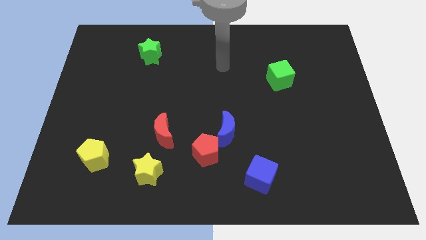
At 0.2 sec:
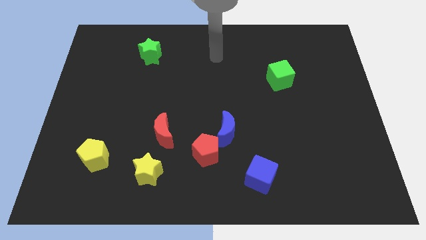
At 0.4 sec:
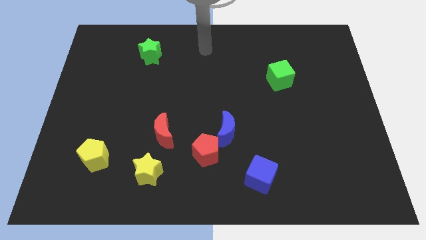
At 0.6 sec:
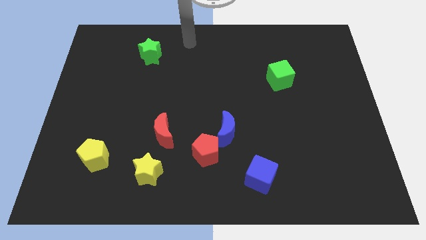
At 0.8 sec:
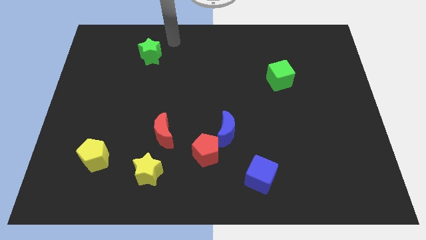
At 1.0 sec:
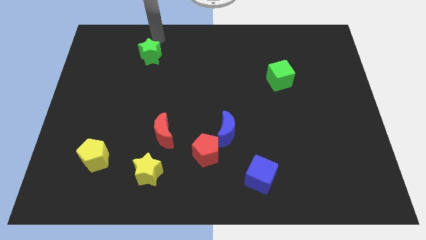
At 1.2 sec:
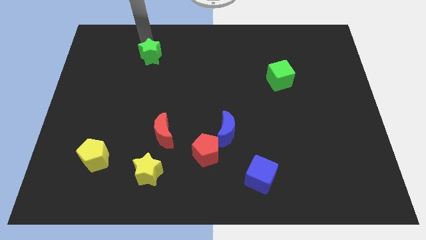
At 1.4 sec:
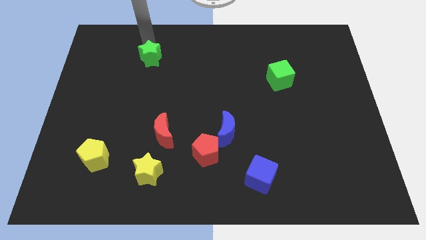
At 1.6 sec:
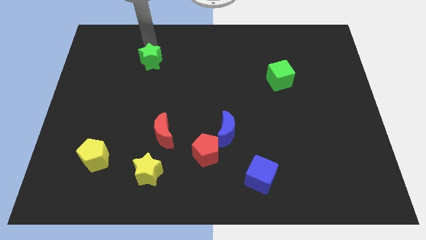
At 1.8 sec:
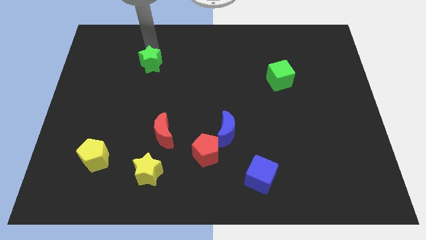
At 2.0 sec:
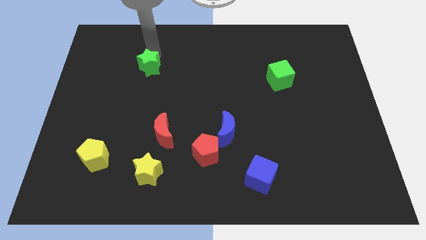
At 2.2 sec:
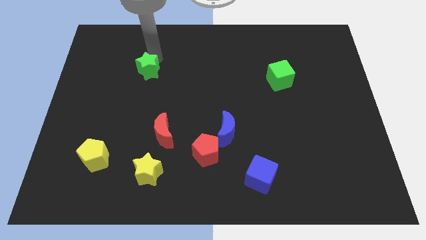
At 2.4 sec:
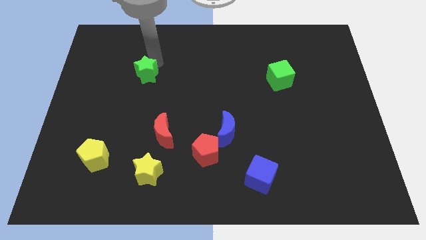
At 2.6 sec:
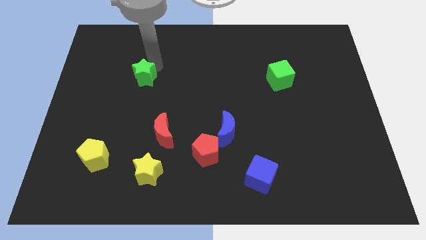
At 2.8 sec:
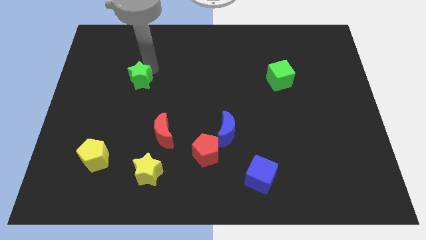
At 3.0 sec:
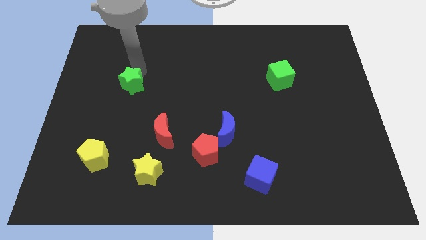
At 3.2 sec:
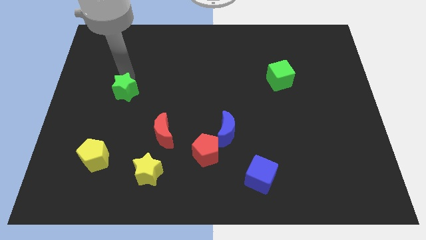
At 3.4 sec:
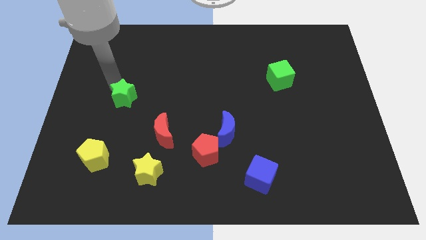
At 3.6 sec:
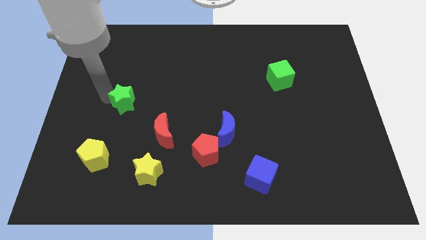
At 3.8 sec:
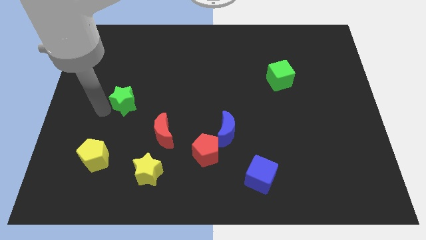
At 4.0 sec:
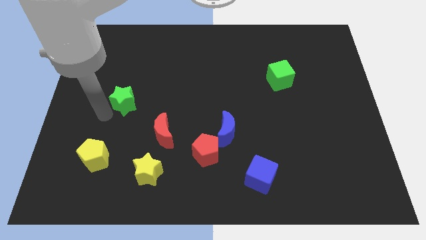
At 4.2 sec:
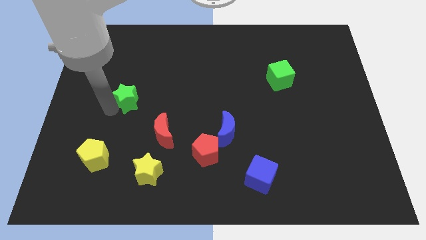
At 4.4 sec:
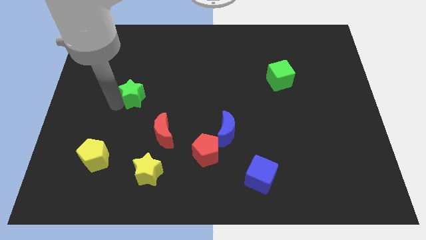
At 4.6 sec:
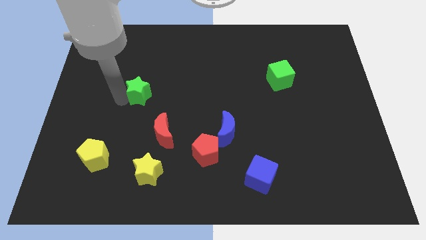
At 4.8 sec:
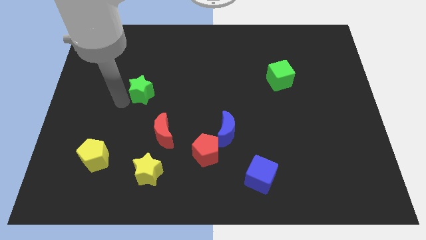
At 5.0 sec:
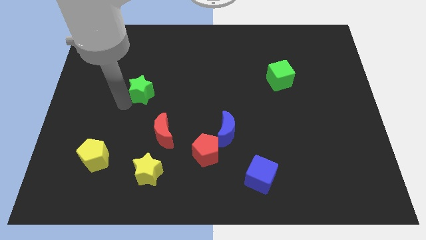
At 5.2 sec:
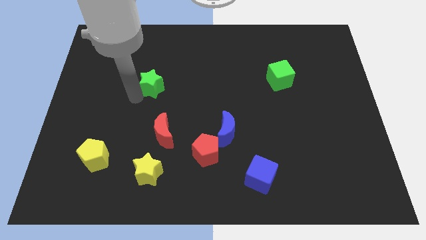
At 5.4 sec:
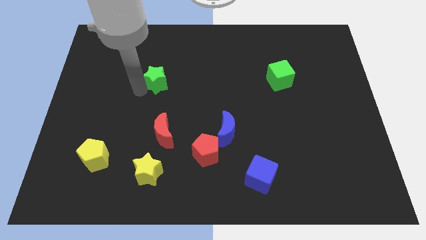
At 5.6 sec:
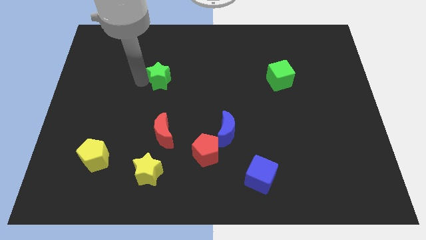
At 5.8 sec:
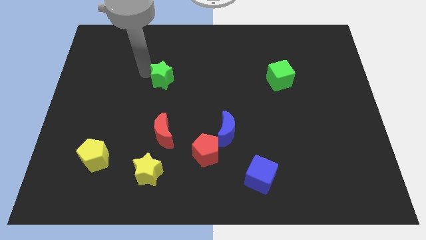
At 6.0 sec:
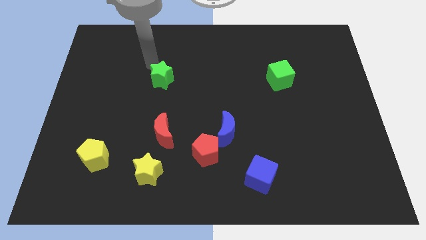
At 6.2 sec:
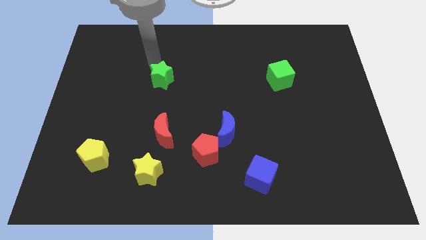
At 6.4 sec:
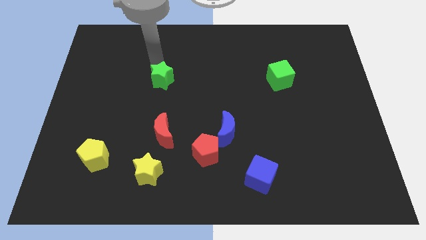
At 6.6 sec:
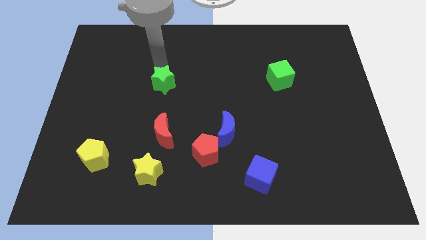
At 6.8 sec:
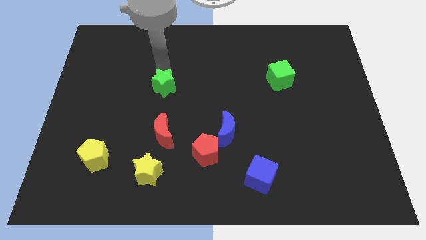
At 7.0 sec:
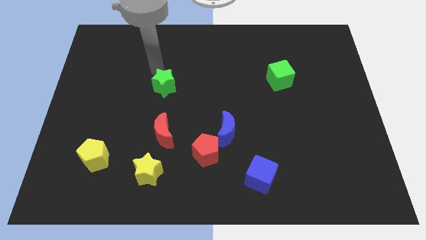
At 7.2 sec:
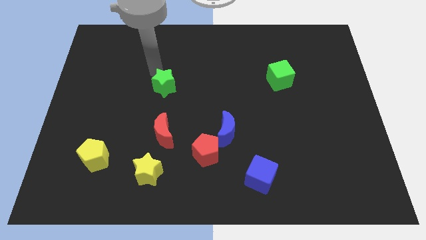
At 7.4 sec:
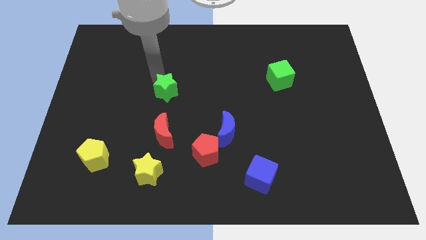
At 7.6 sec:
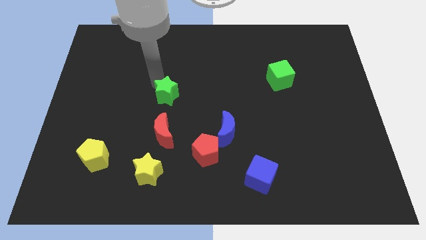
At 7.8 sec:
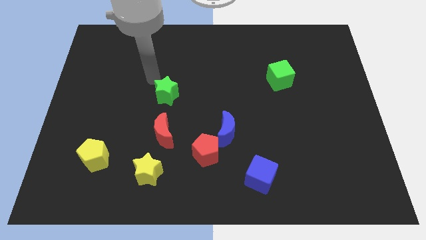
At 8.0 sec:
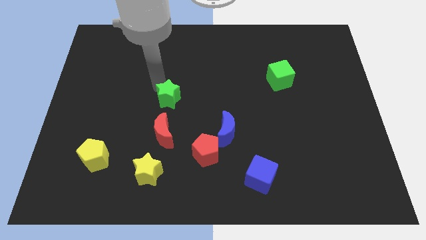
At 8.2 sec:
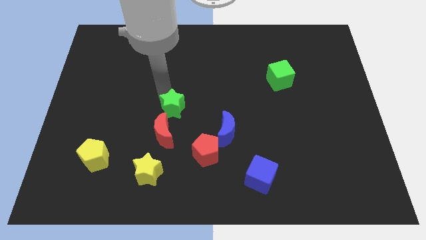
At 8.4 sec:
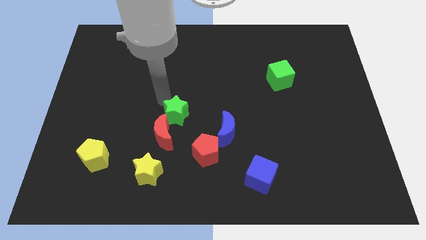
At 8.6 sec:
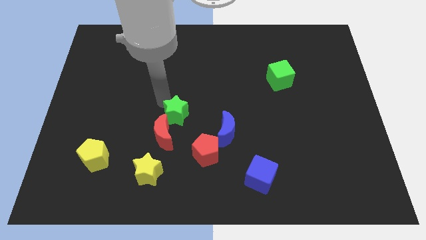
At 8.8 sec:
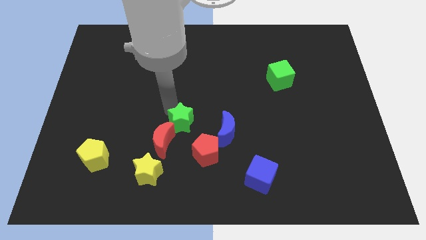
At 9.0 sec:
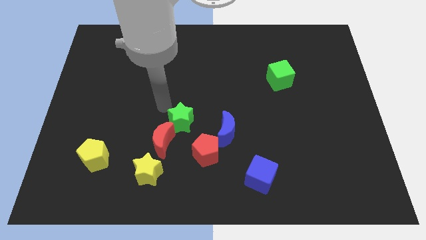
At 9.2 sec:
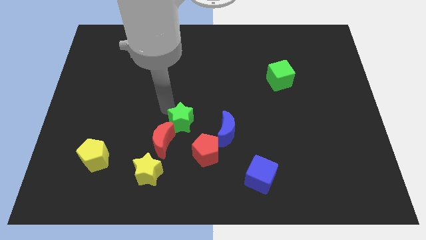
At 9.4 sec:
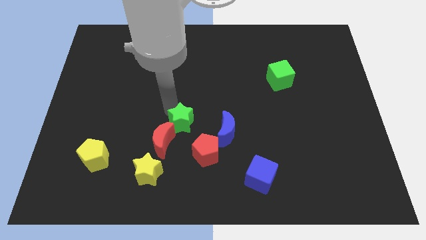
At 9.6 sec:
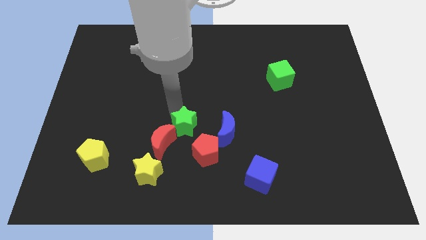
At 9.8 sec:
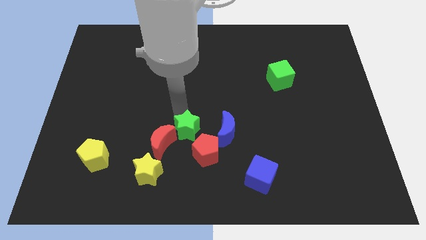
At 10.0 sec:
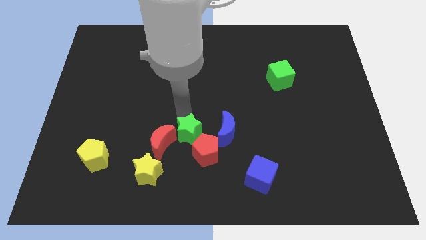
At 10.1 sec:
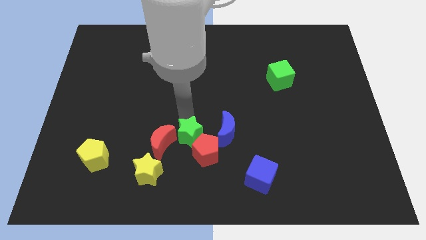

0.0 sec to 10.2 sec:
put the green star towards the red pentagon

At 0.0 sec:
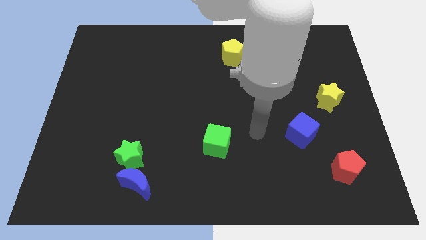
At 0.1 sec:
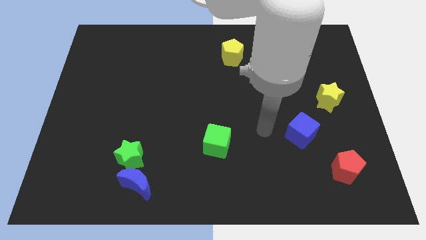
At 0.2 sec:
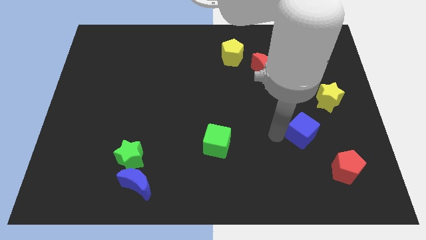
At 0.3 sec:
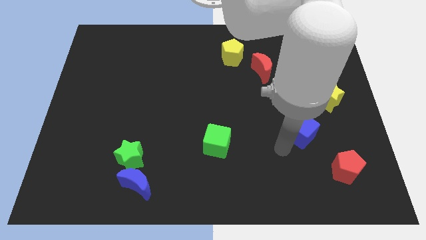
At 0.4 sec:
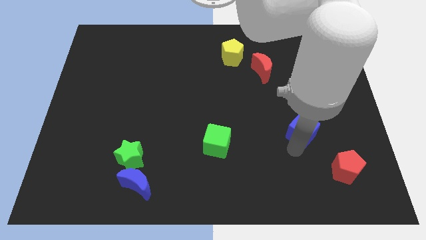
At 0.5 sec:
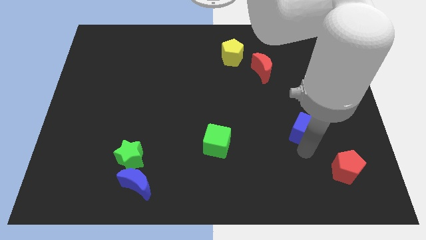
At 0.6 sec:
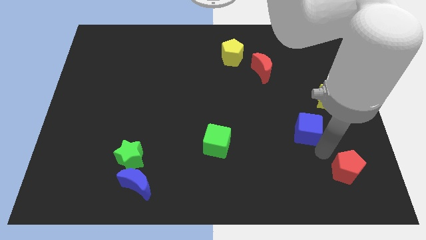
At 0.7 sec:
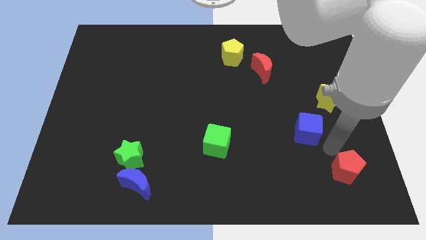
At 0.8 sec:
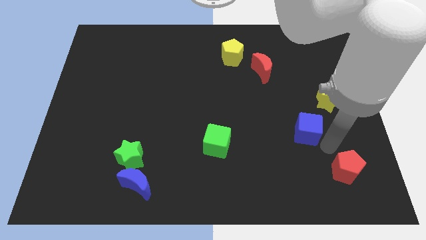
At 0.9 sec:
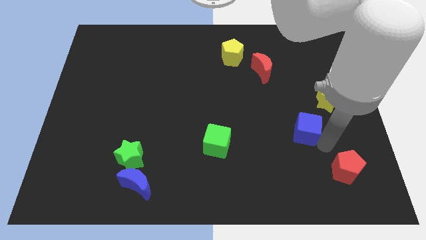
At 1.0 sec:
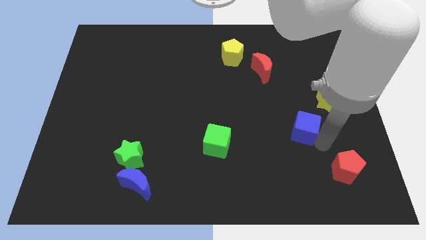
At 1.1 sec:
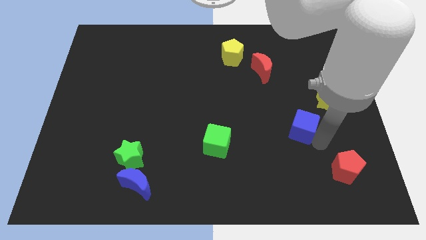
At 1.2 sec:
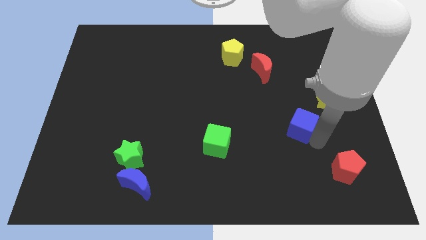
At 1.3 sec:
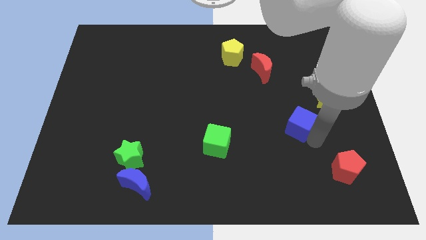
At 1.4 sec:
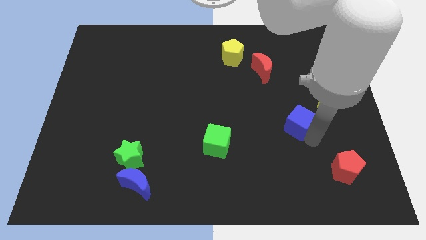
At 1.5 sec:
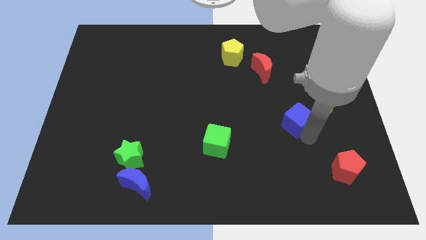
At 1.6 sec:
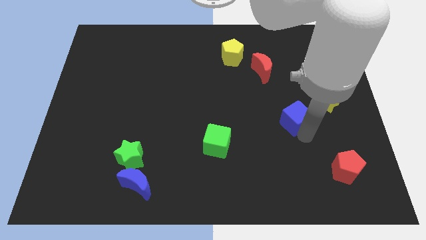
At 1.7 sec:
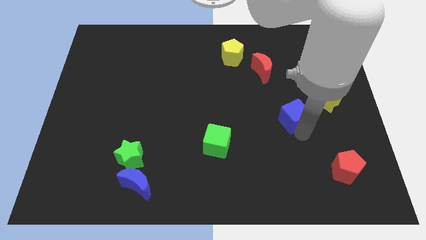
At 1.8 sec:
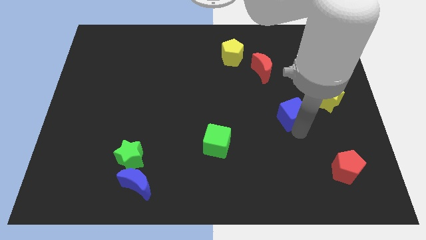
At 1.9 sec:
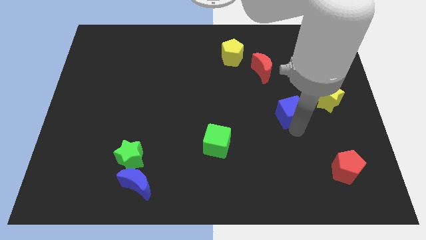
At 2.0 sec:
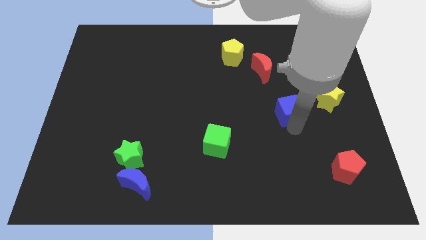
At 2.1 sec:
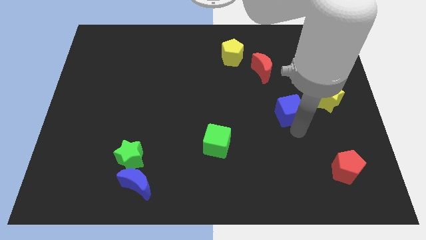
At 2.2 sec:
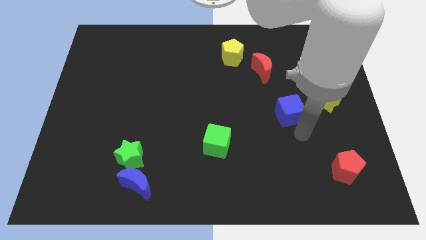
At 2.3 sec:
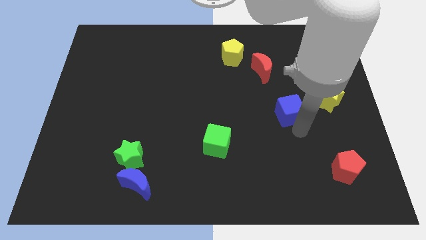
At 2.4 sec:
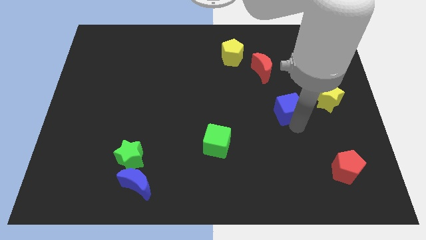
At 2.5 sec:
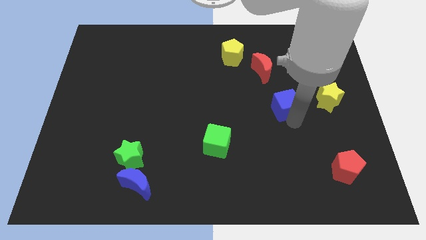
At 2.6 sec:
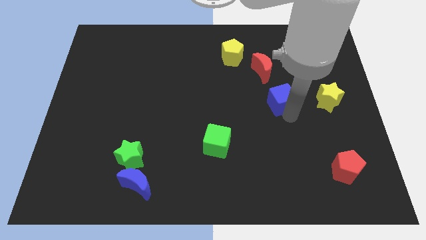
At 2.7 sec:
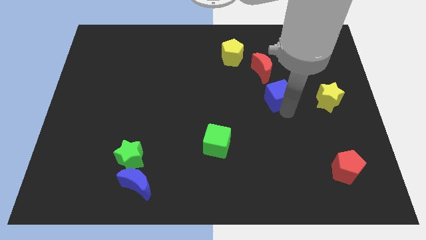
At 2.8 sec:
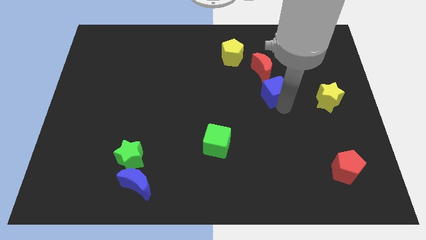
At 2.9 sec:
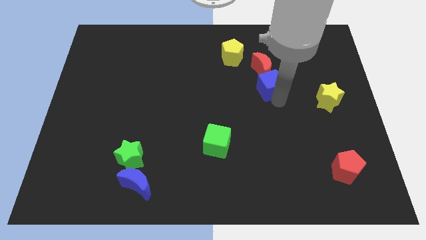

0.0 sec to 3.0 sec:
push the blue cube towards the red moon
